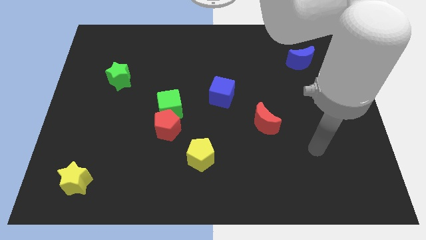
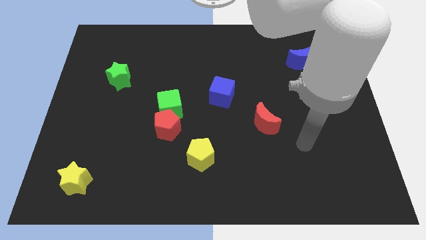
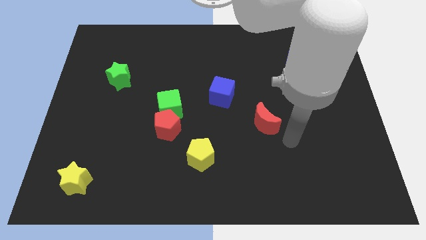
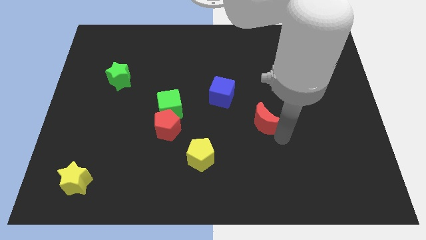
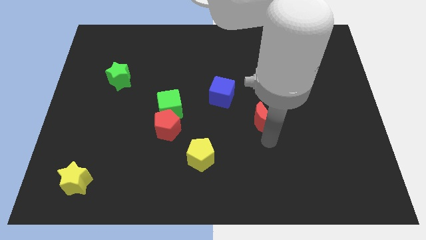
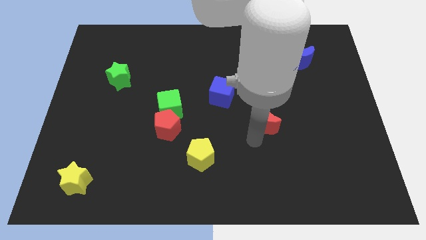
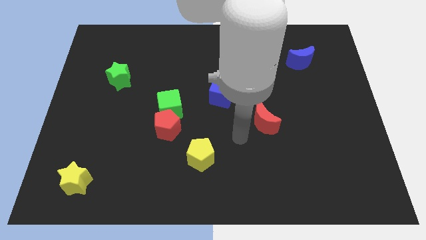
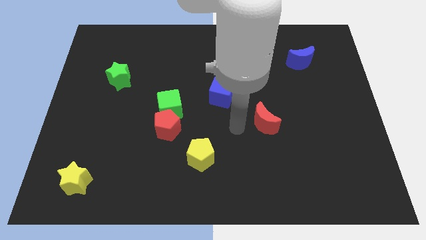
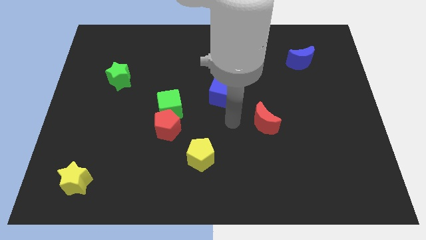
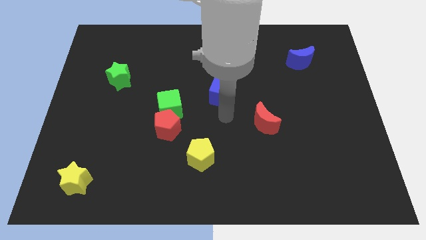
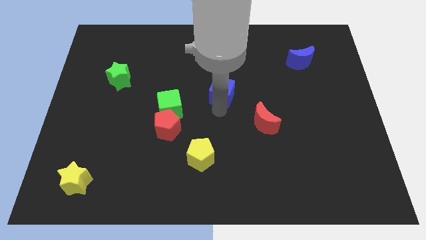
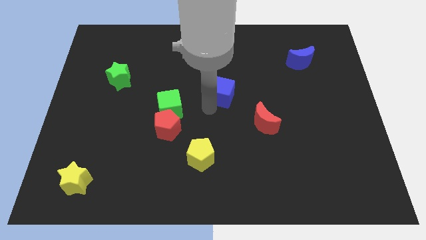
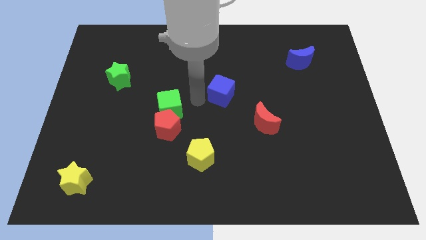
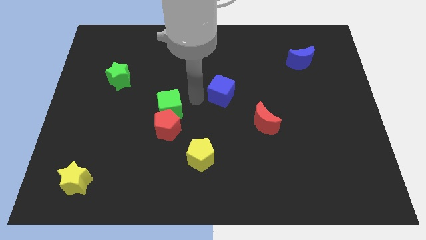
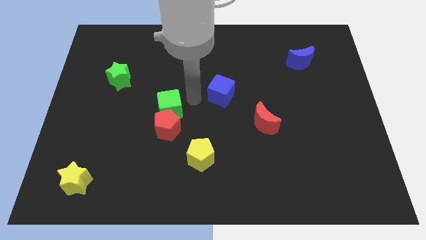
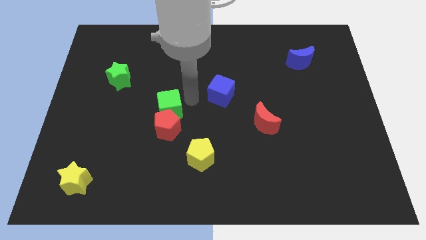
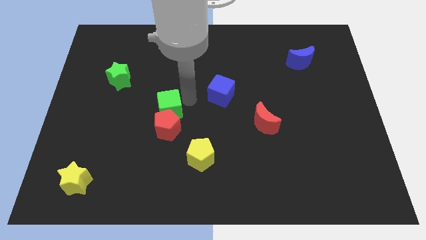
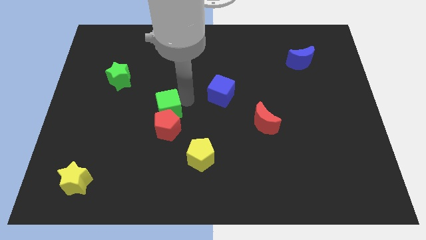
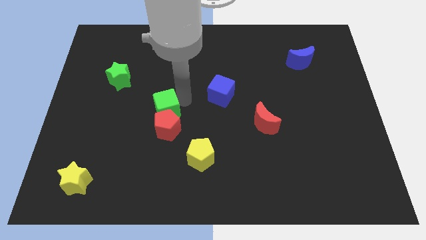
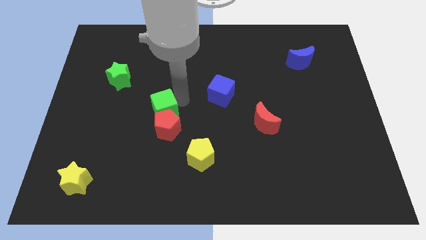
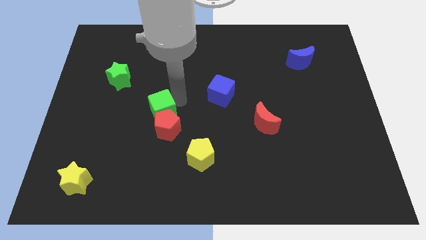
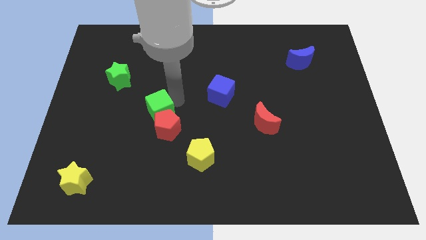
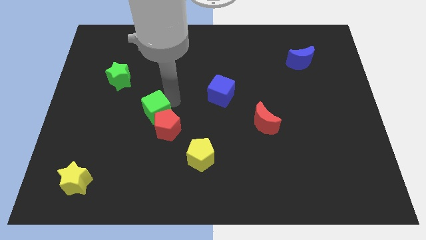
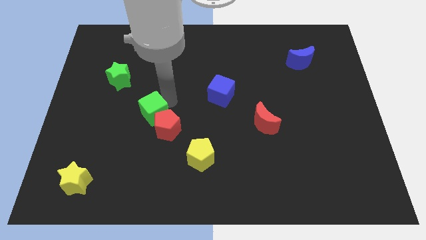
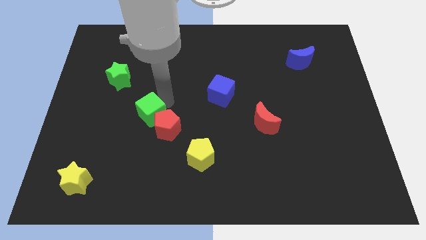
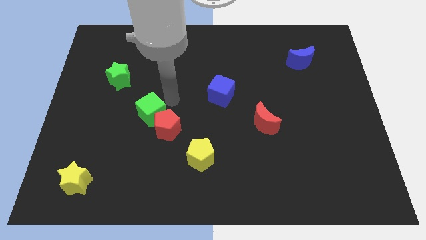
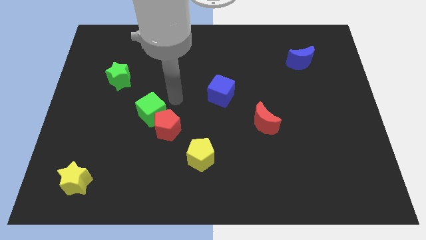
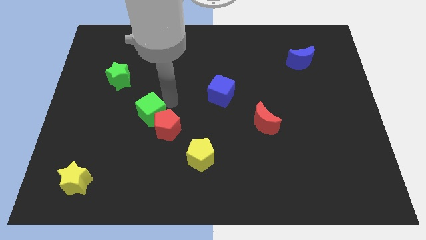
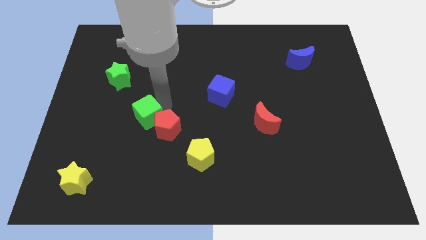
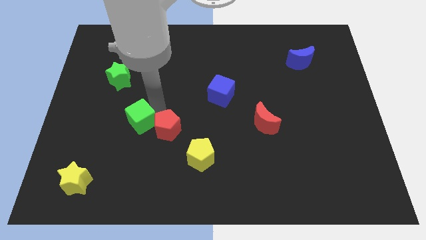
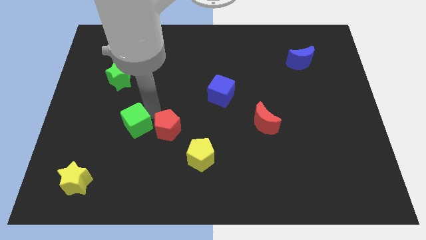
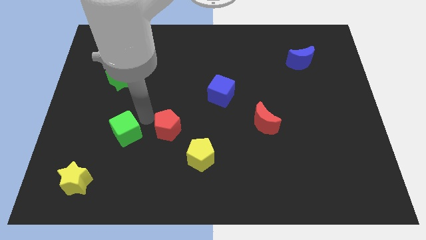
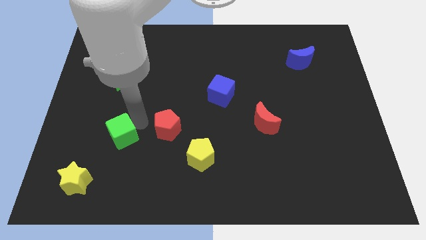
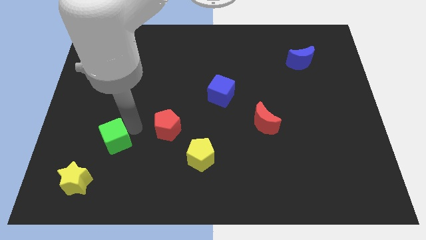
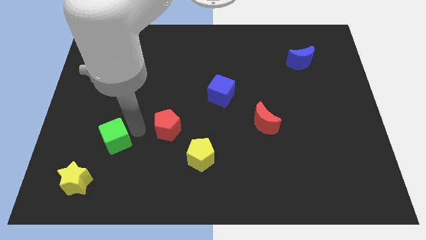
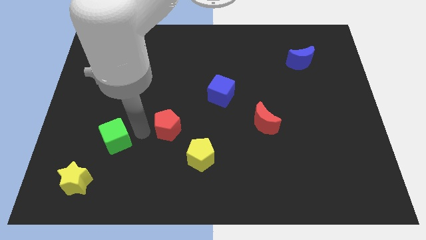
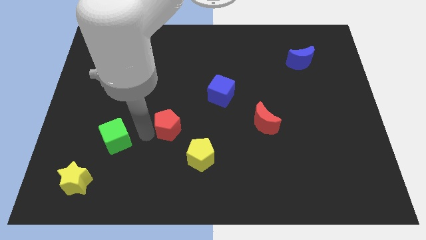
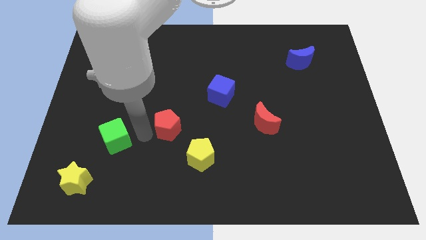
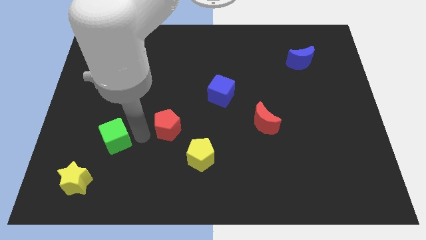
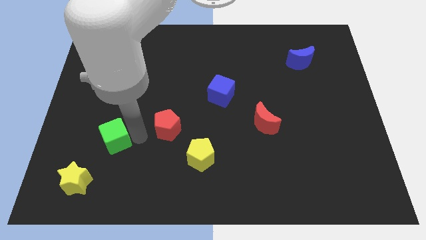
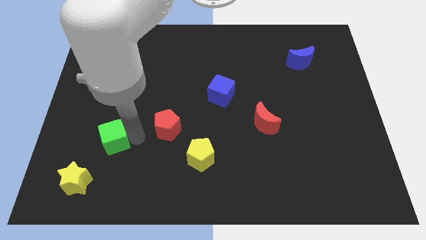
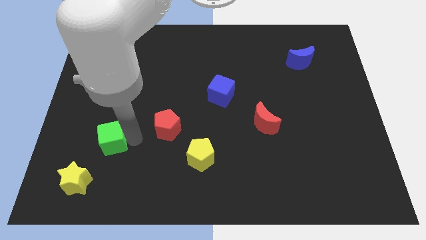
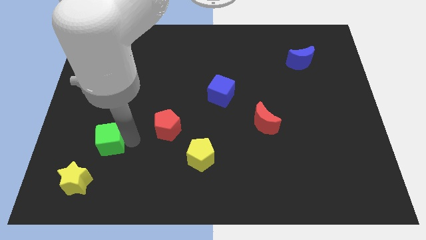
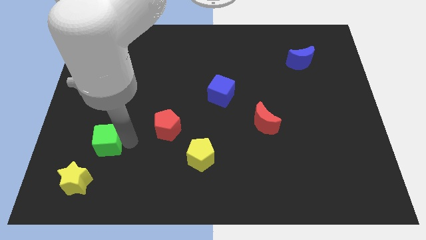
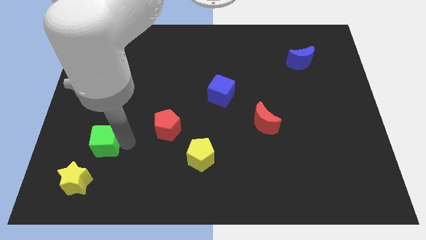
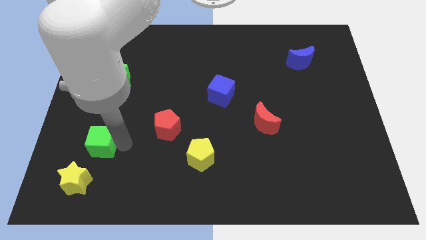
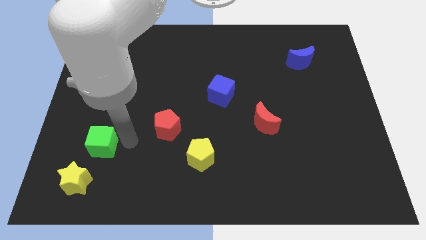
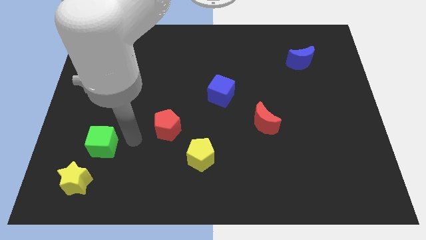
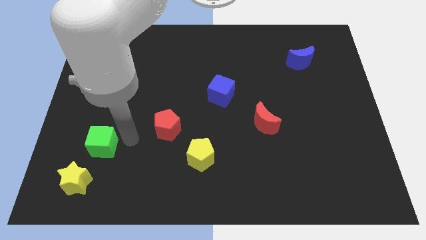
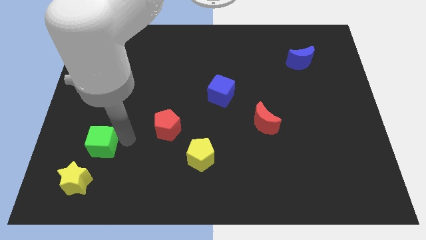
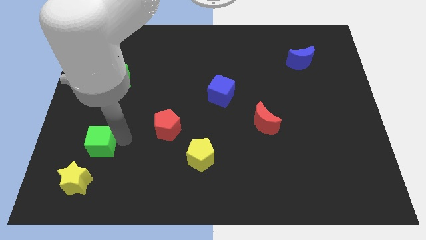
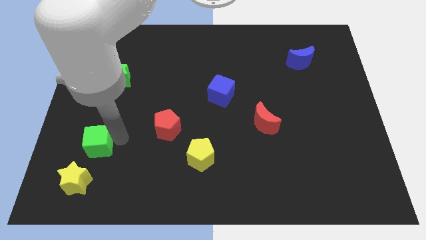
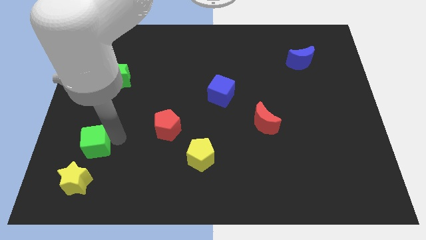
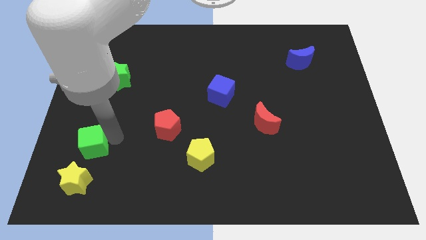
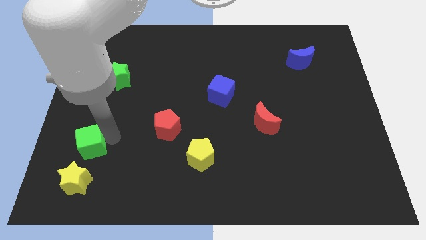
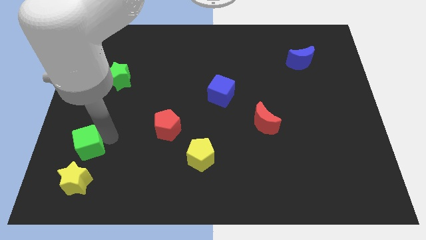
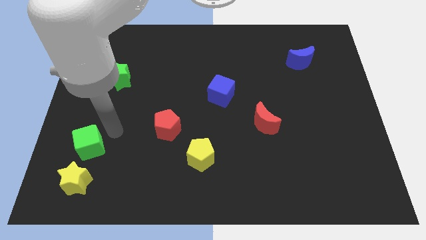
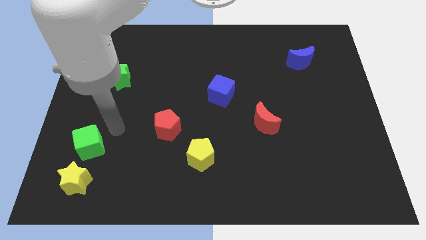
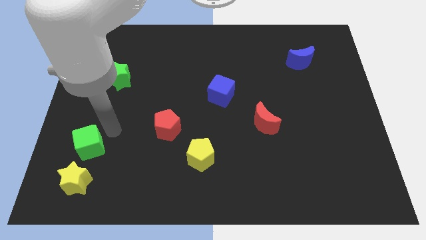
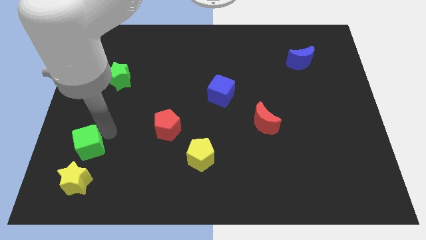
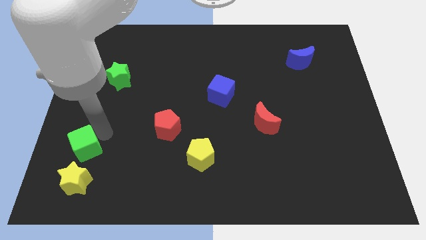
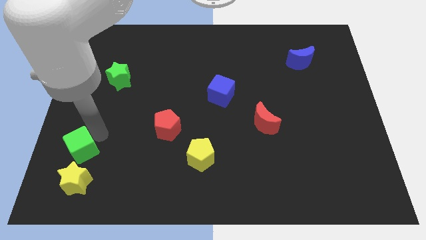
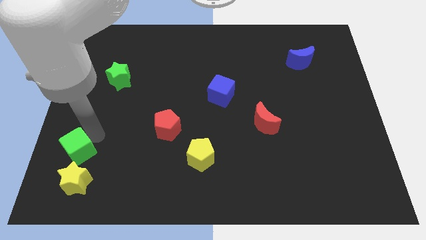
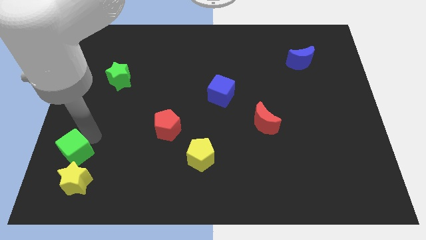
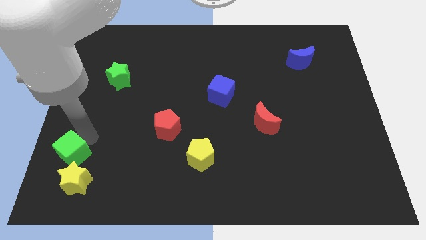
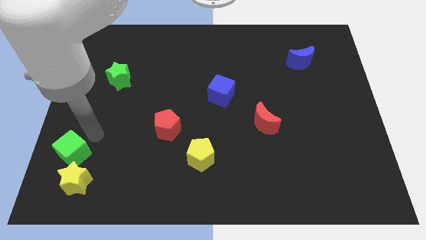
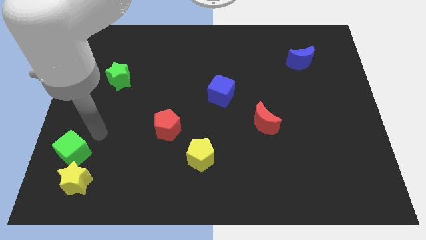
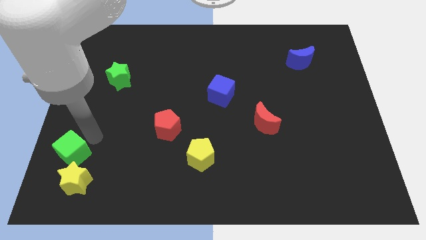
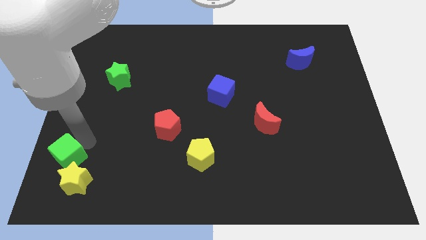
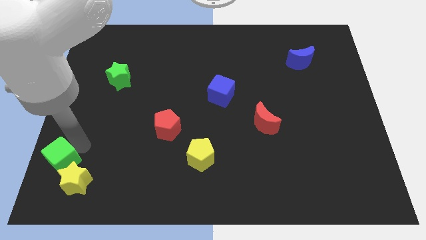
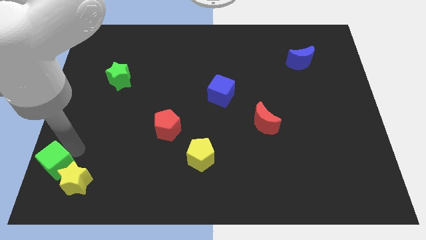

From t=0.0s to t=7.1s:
slide the green cube to the bottom left corner
